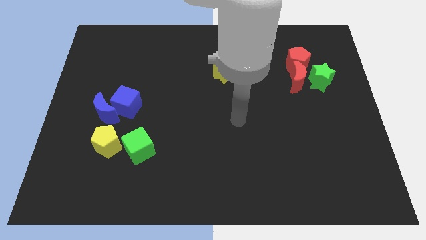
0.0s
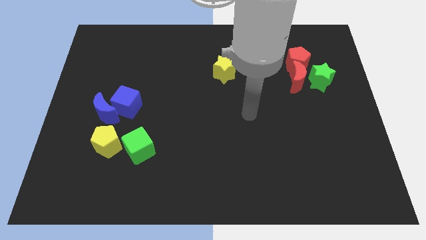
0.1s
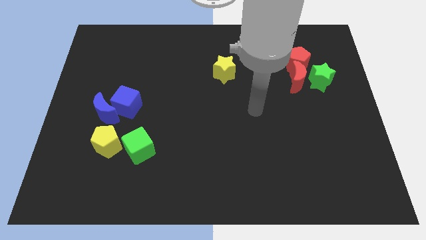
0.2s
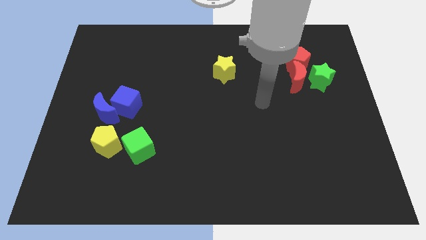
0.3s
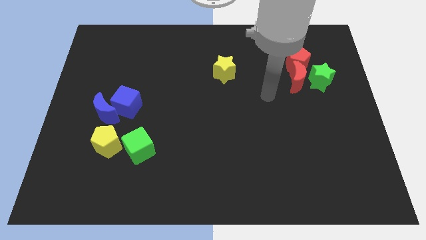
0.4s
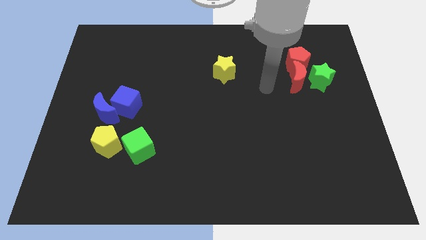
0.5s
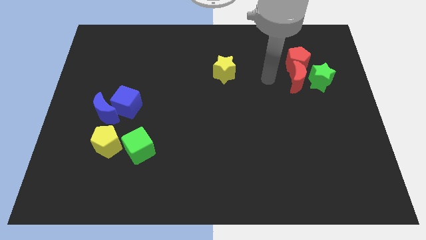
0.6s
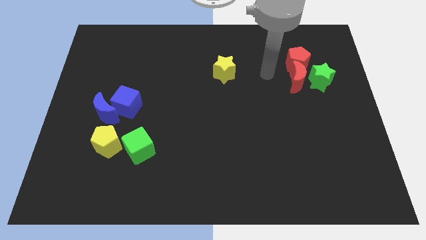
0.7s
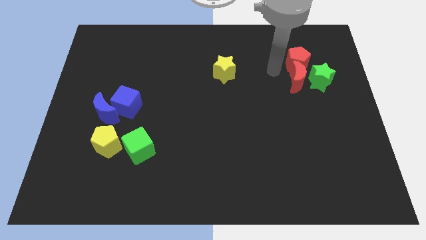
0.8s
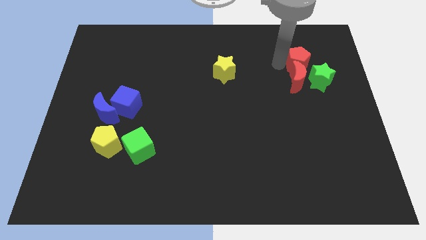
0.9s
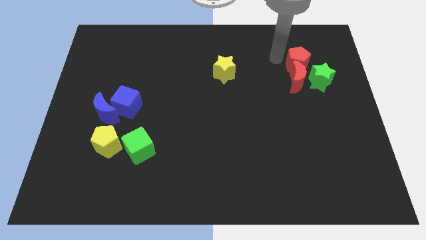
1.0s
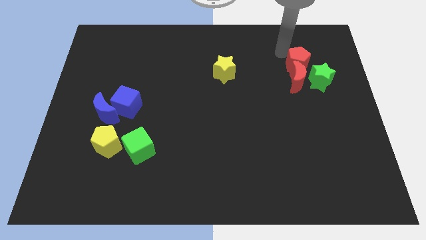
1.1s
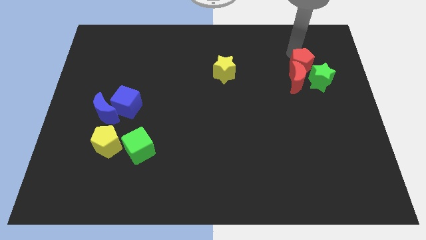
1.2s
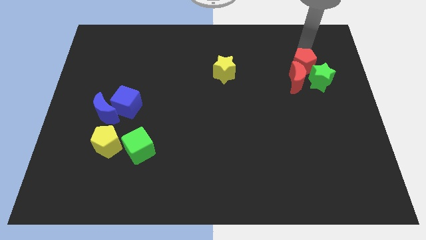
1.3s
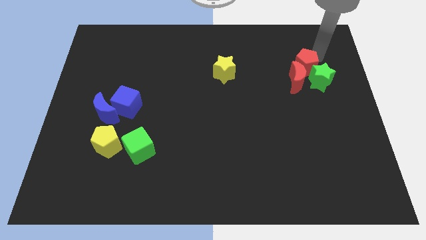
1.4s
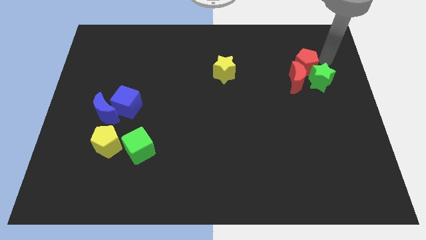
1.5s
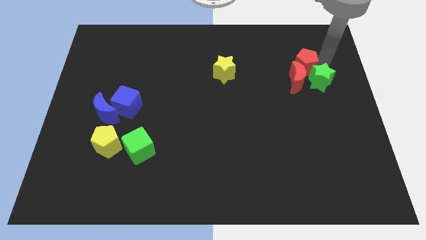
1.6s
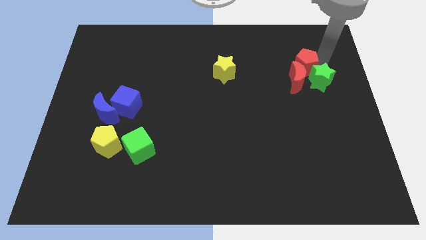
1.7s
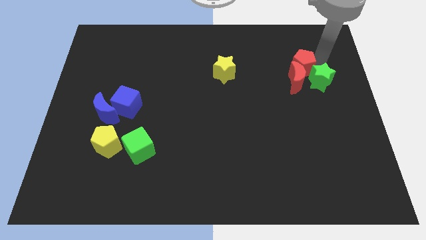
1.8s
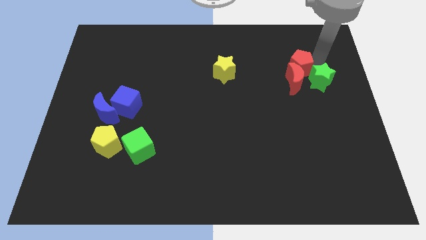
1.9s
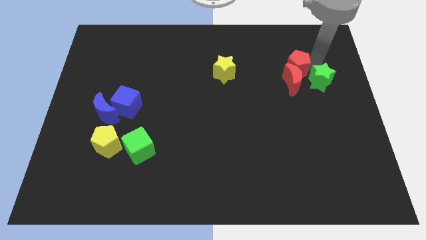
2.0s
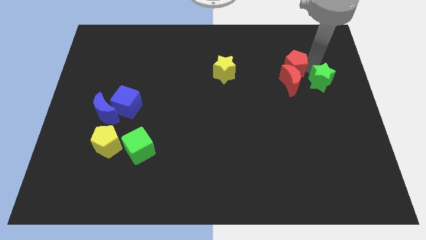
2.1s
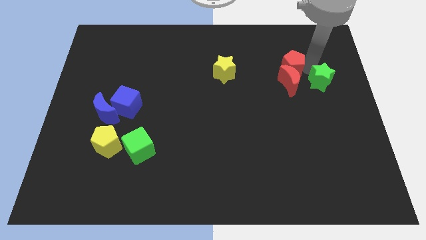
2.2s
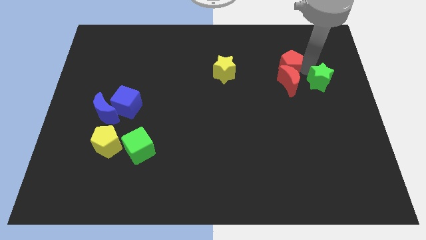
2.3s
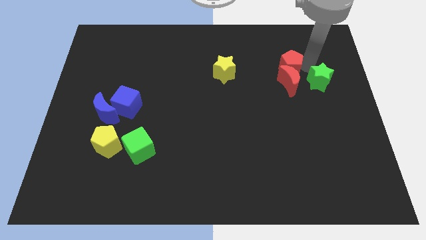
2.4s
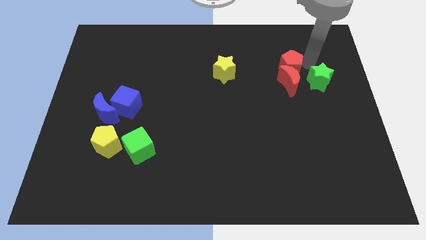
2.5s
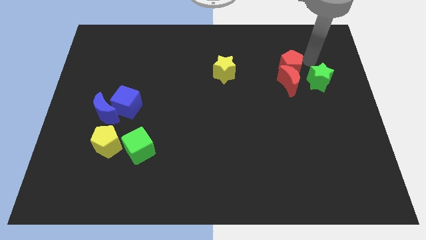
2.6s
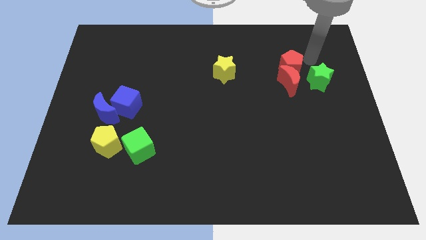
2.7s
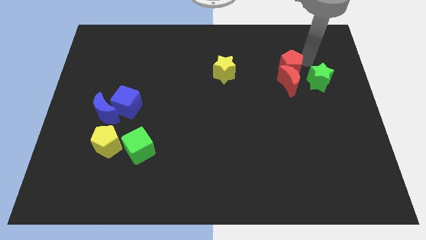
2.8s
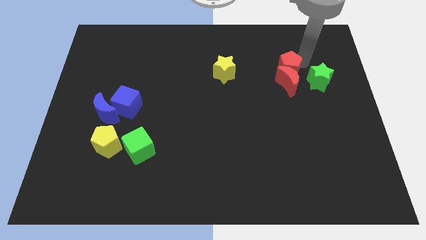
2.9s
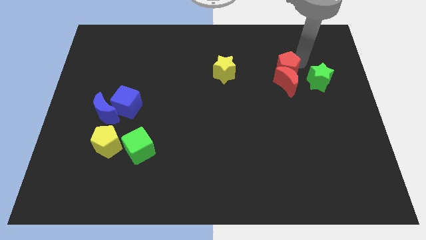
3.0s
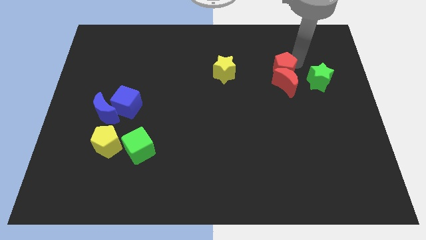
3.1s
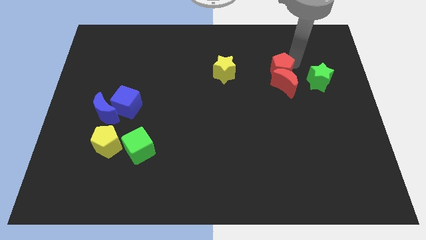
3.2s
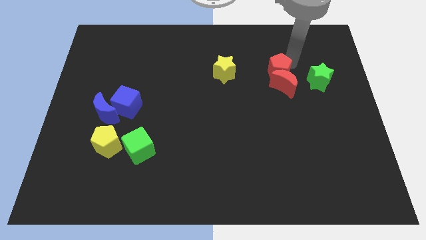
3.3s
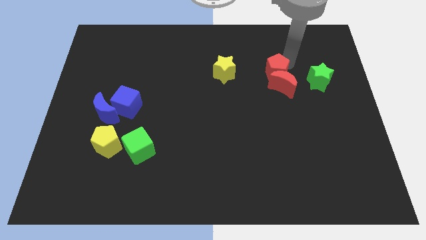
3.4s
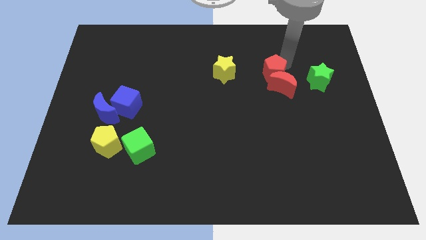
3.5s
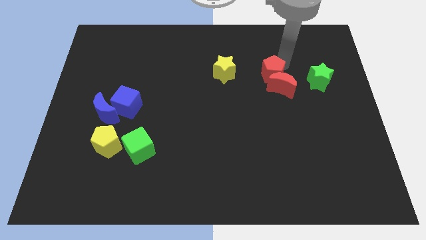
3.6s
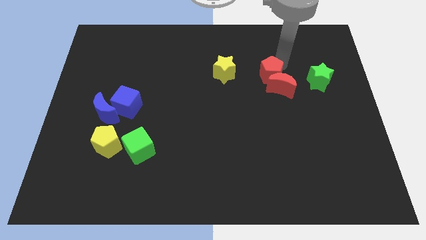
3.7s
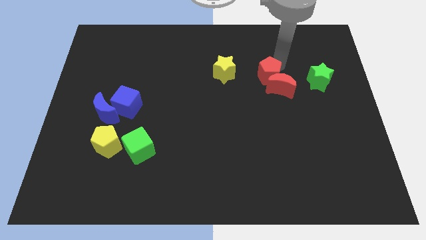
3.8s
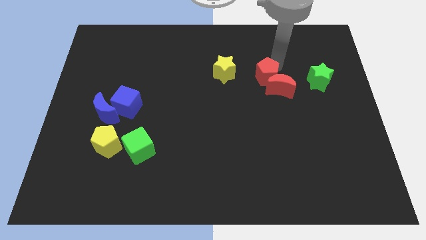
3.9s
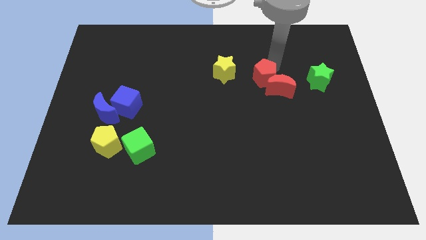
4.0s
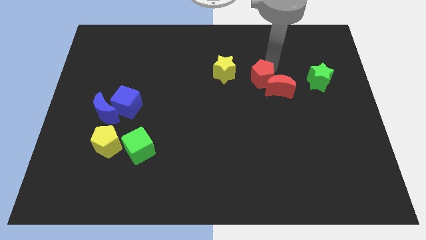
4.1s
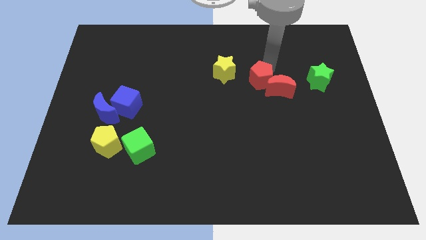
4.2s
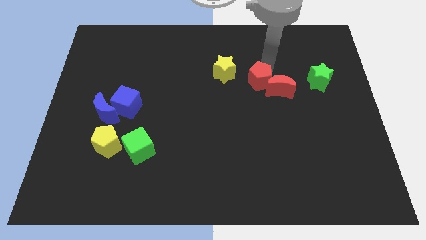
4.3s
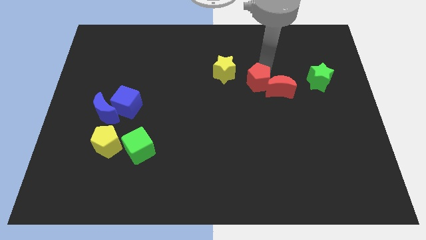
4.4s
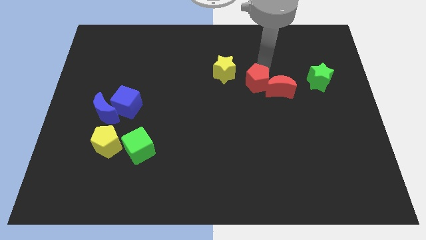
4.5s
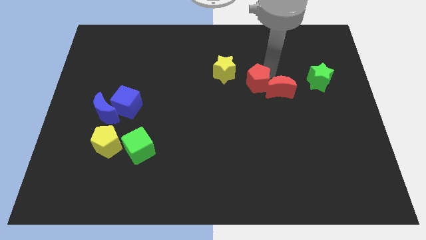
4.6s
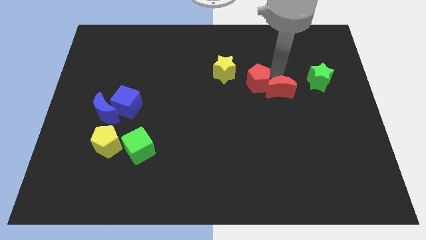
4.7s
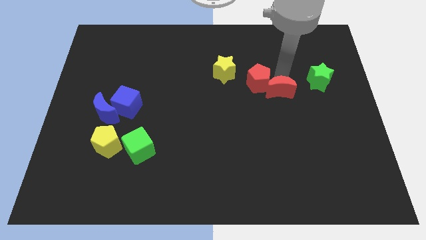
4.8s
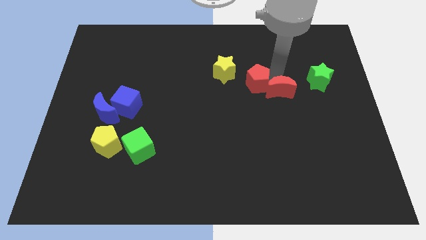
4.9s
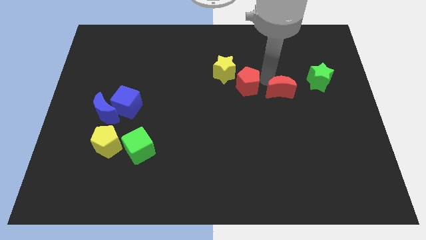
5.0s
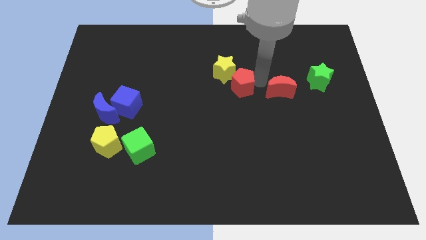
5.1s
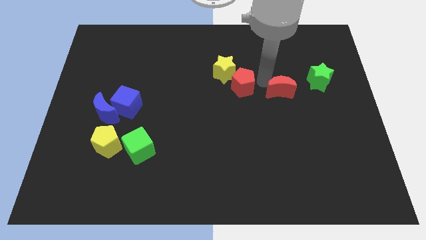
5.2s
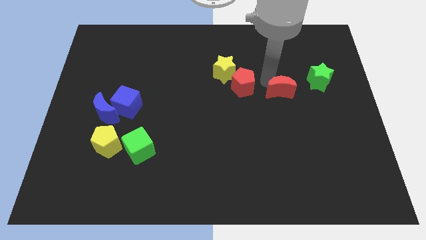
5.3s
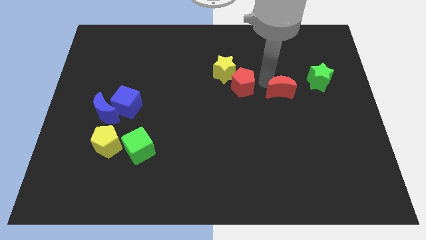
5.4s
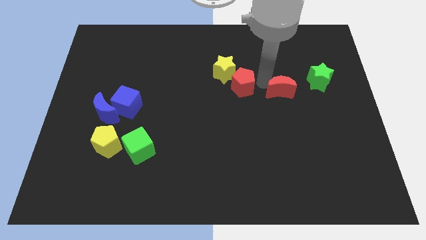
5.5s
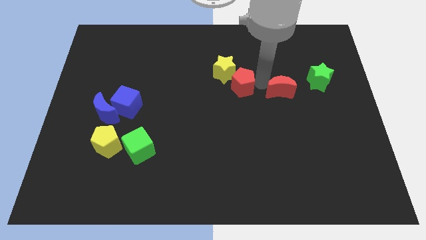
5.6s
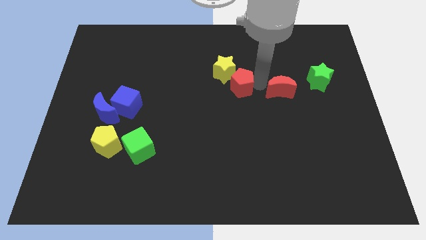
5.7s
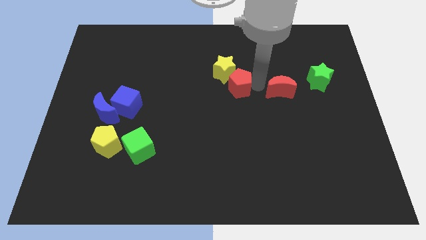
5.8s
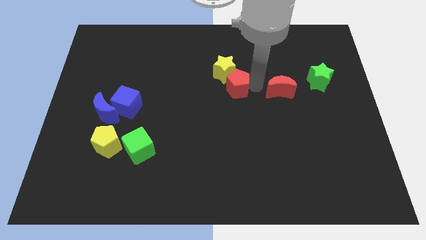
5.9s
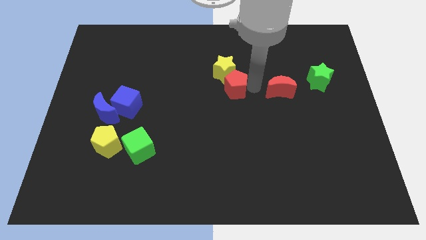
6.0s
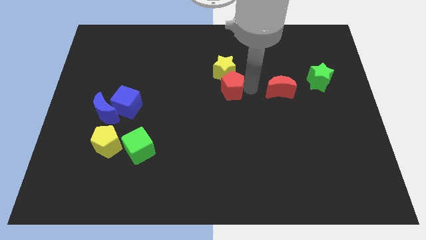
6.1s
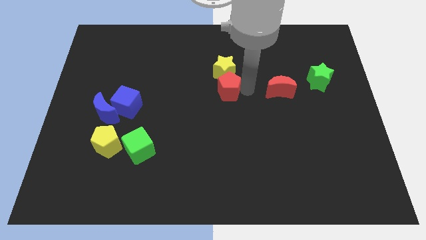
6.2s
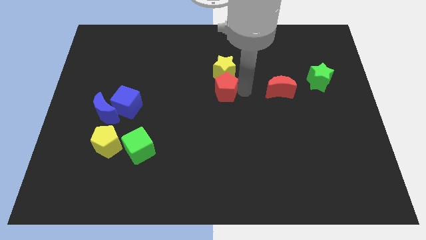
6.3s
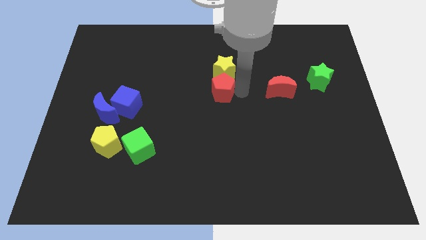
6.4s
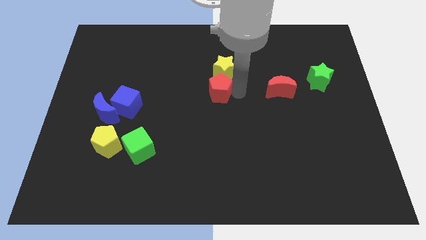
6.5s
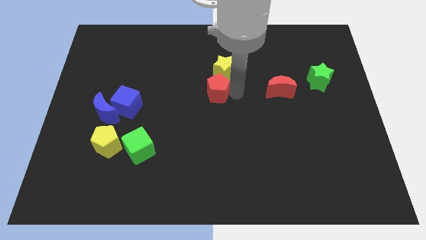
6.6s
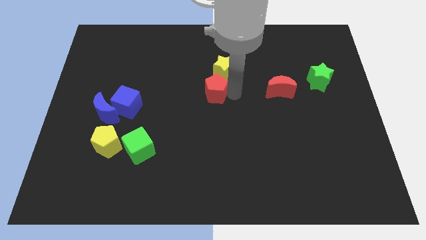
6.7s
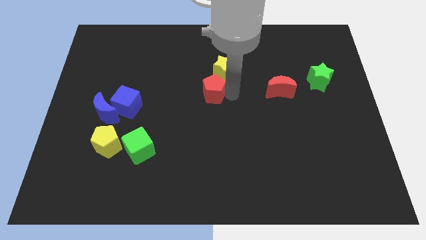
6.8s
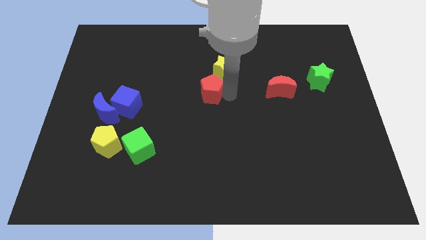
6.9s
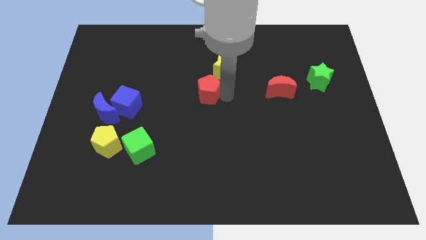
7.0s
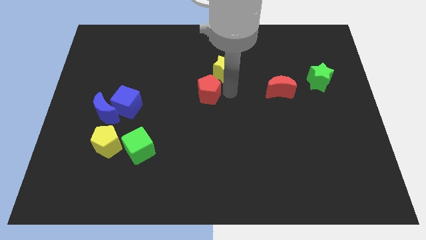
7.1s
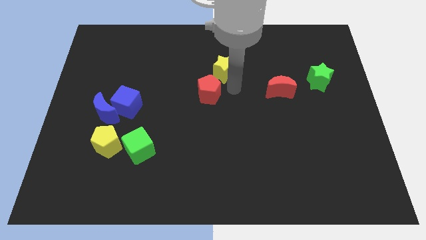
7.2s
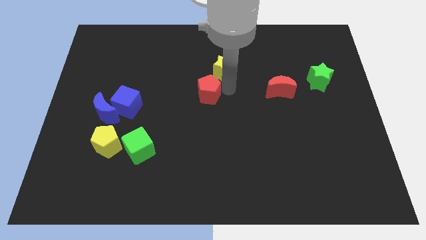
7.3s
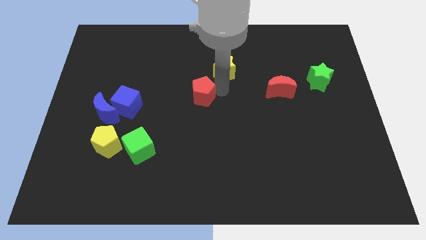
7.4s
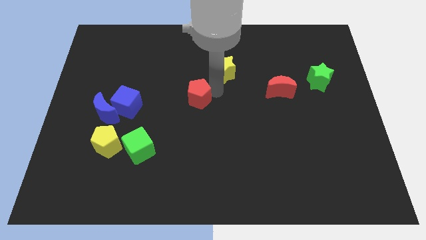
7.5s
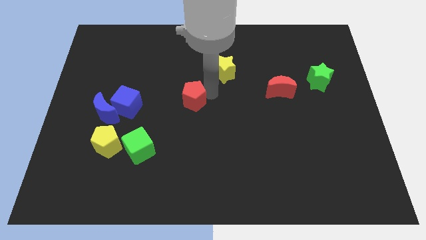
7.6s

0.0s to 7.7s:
put the red pentagon to the right side of the blue cube

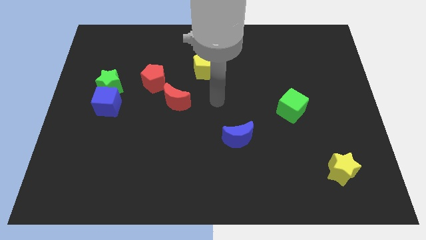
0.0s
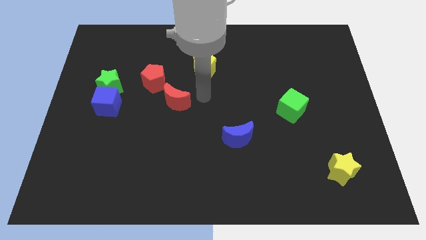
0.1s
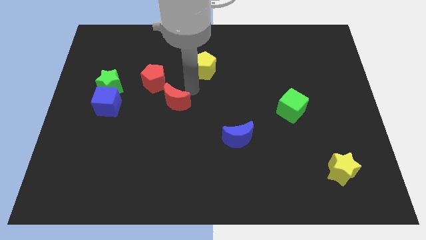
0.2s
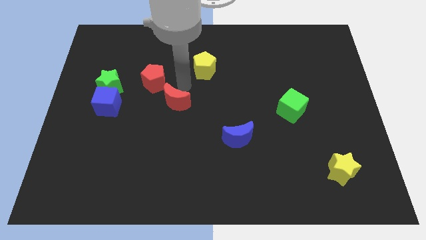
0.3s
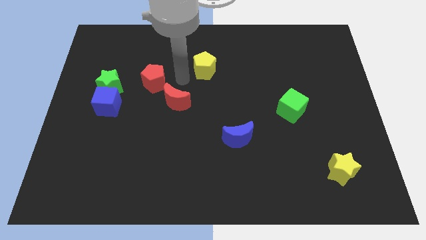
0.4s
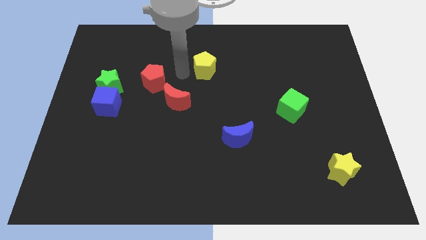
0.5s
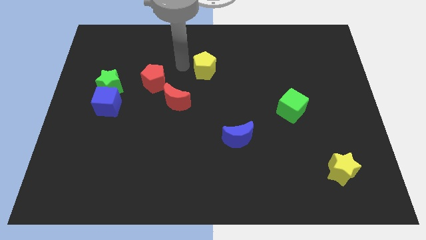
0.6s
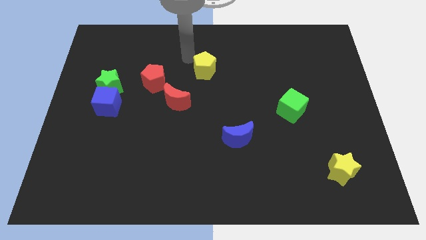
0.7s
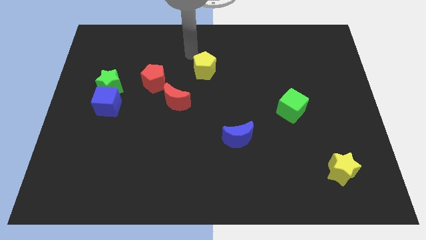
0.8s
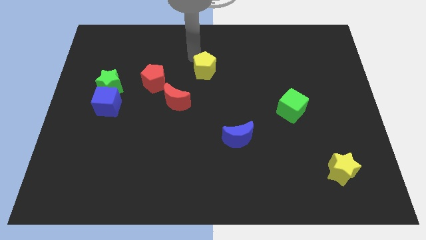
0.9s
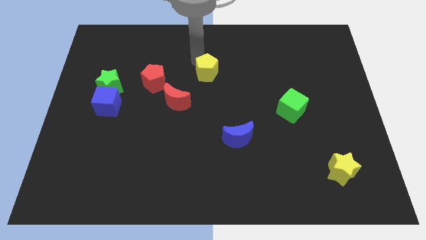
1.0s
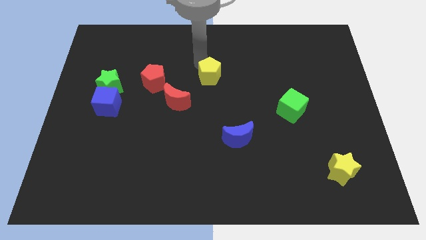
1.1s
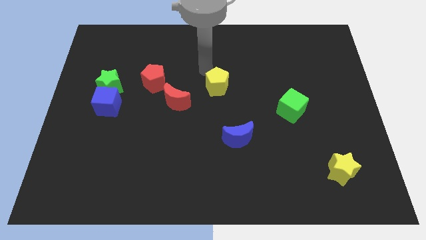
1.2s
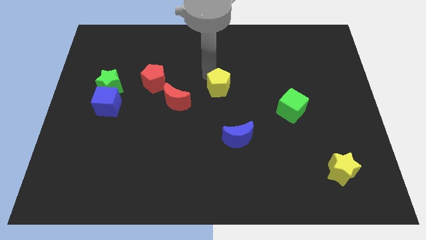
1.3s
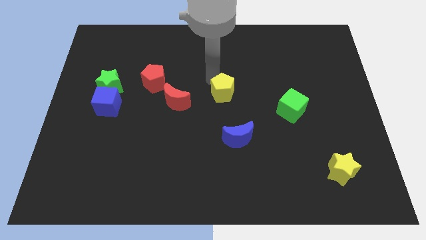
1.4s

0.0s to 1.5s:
move the yellow pentagon above the blue moon
